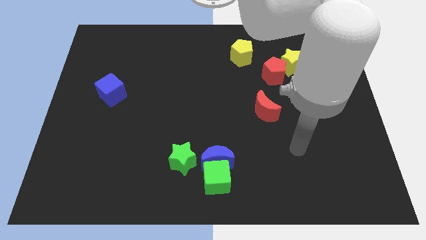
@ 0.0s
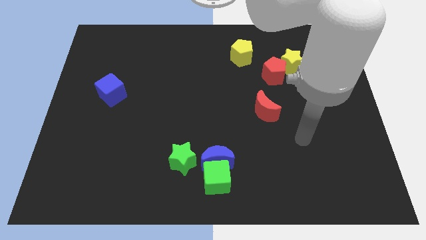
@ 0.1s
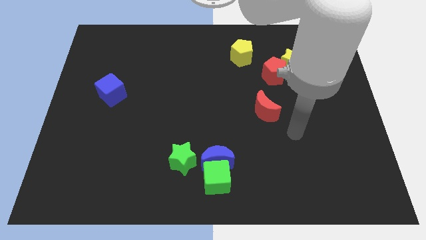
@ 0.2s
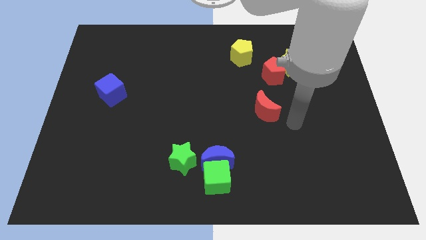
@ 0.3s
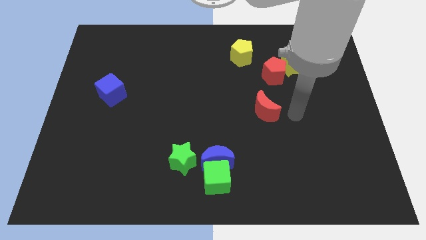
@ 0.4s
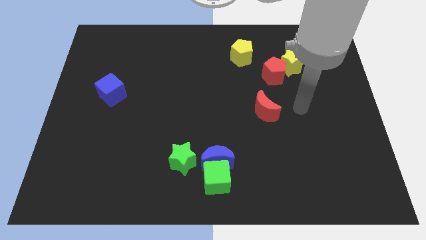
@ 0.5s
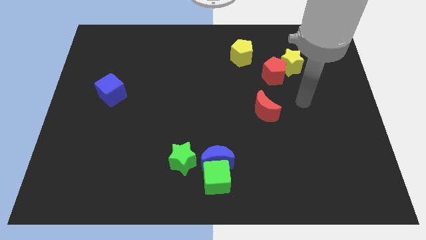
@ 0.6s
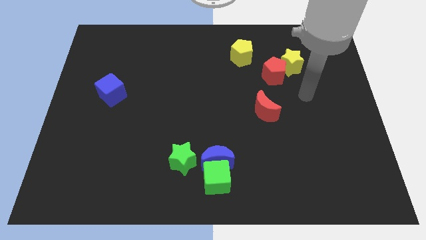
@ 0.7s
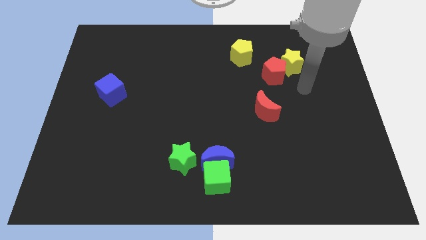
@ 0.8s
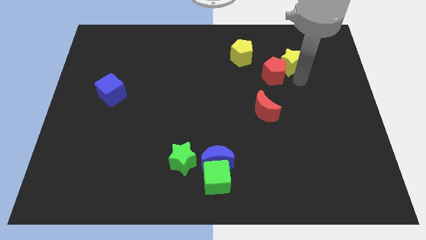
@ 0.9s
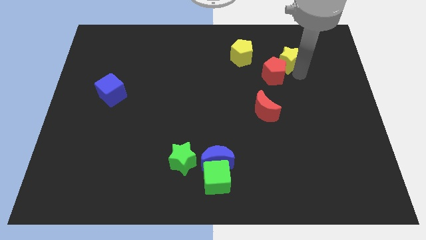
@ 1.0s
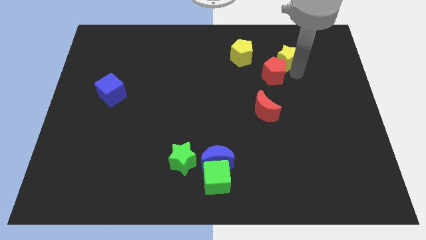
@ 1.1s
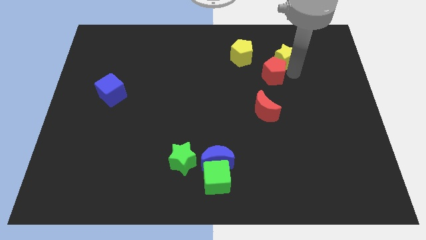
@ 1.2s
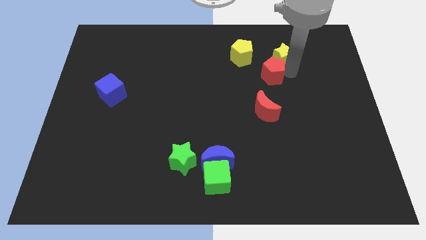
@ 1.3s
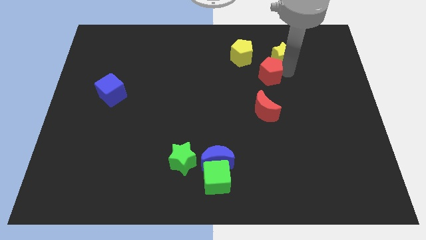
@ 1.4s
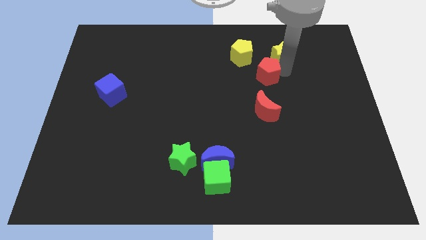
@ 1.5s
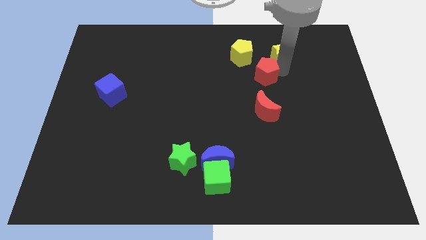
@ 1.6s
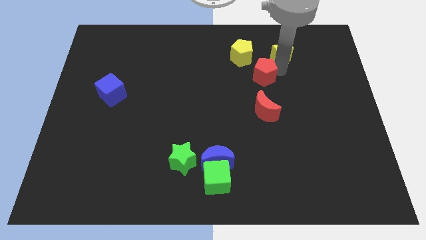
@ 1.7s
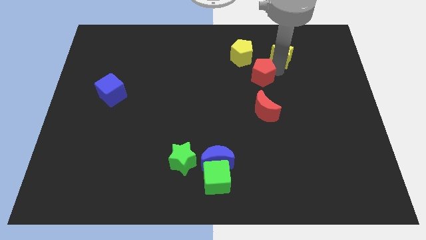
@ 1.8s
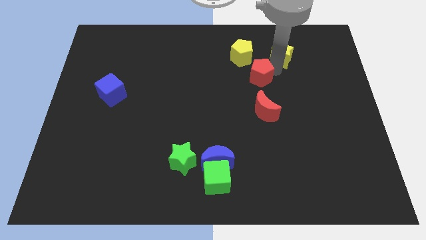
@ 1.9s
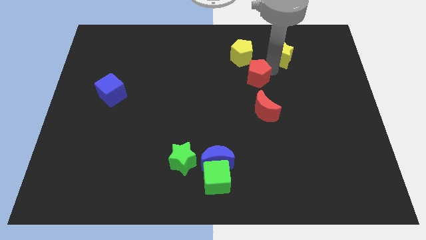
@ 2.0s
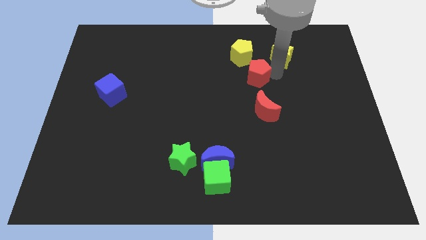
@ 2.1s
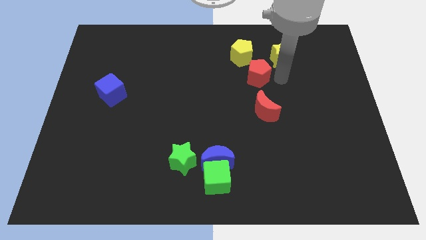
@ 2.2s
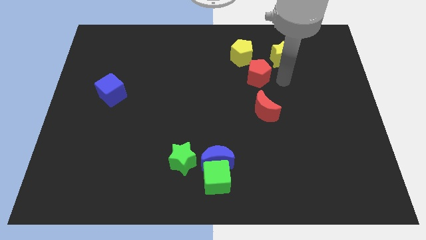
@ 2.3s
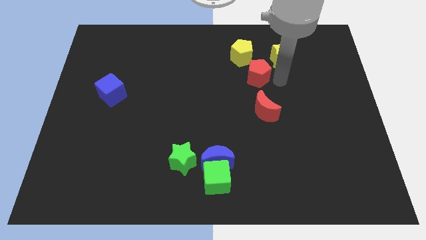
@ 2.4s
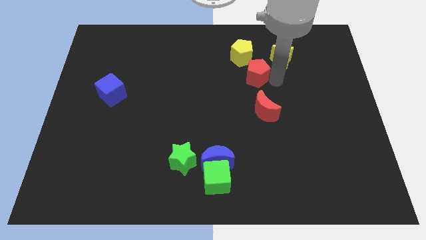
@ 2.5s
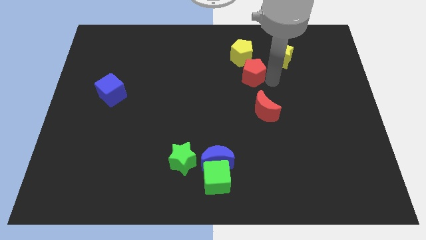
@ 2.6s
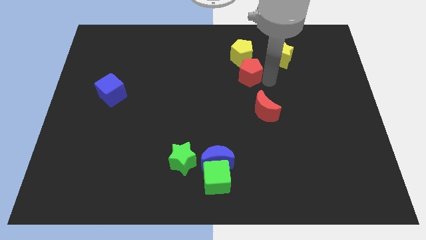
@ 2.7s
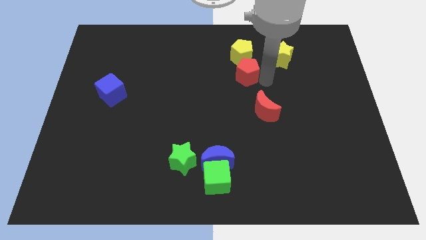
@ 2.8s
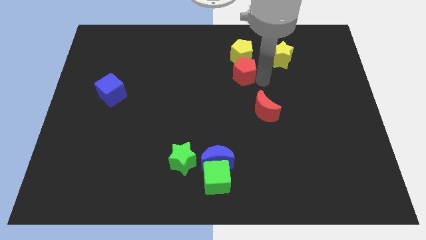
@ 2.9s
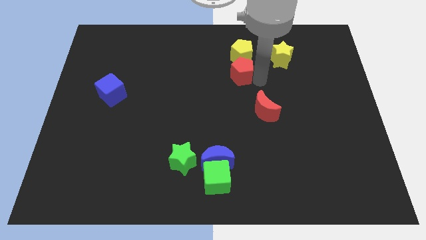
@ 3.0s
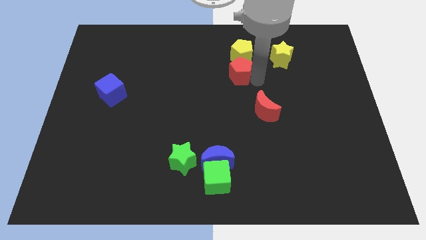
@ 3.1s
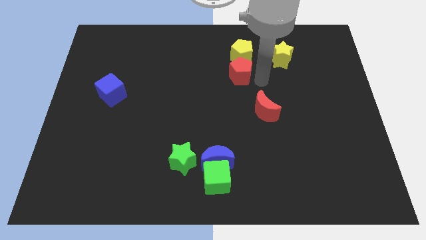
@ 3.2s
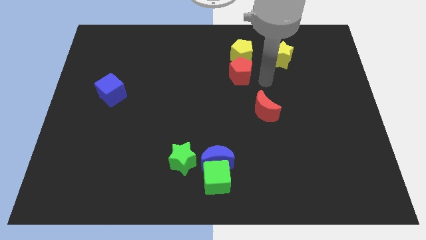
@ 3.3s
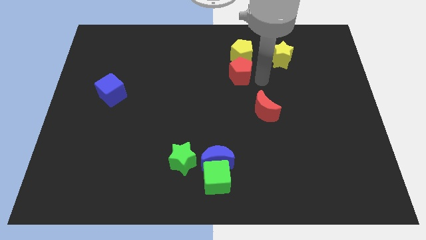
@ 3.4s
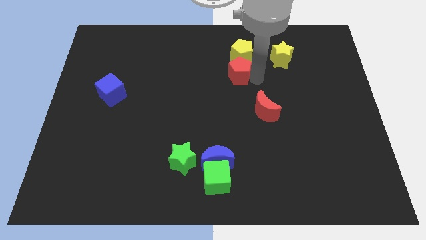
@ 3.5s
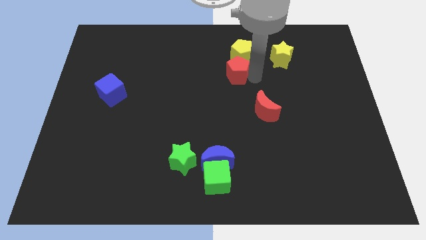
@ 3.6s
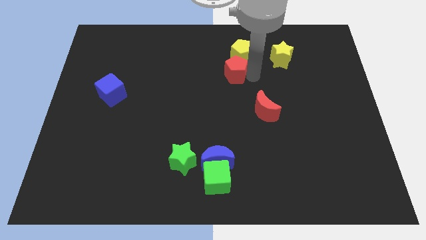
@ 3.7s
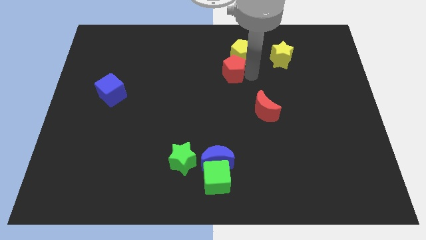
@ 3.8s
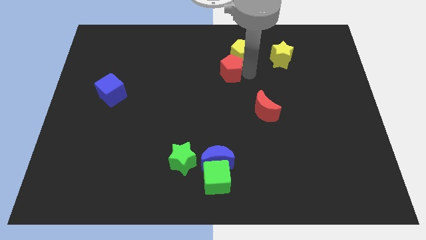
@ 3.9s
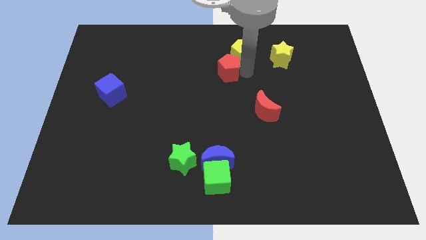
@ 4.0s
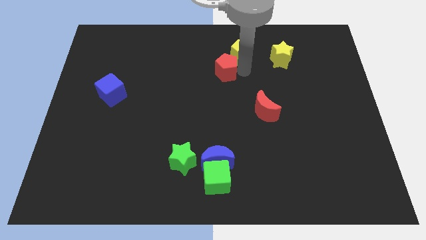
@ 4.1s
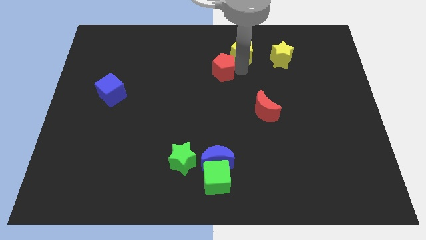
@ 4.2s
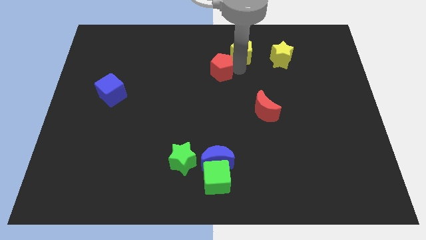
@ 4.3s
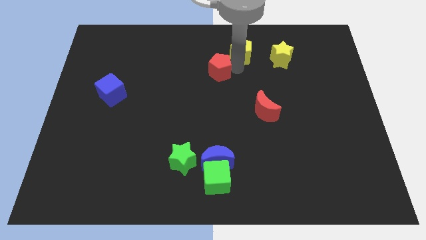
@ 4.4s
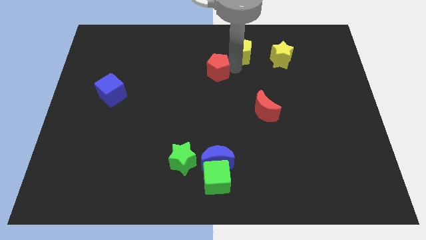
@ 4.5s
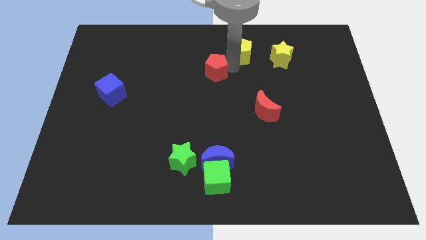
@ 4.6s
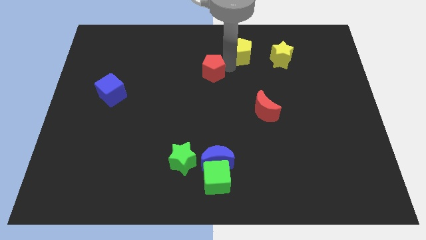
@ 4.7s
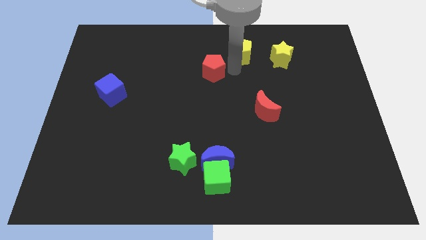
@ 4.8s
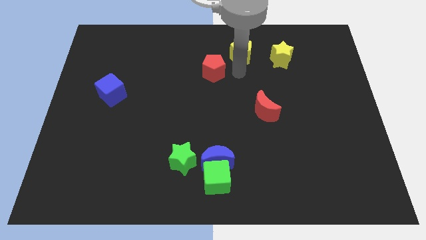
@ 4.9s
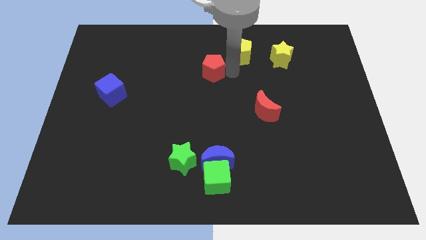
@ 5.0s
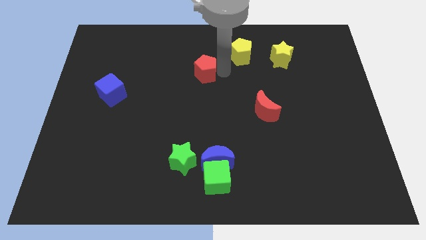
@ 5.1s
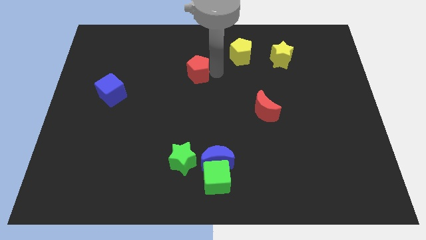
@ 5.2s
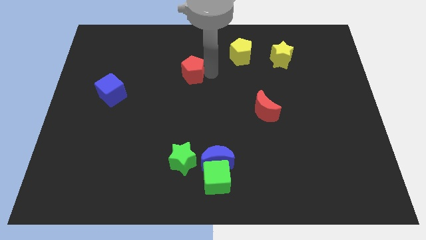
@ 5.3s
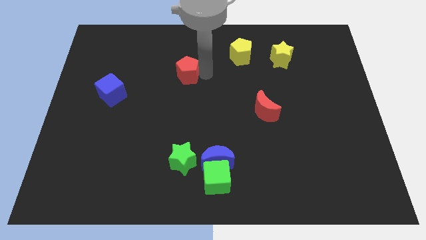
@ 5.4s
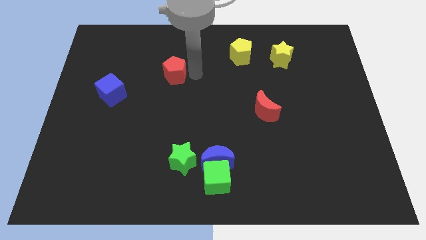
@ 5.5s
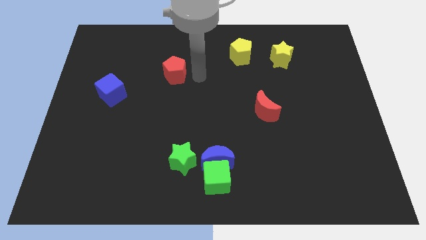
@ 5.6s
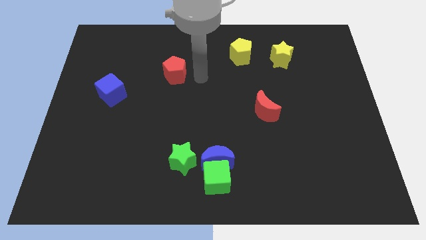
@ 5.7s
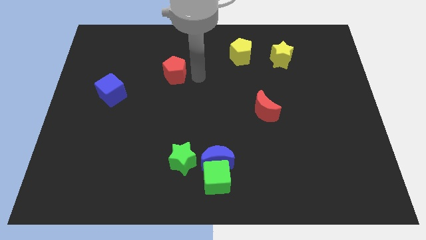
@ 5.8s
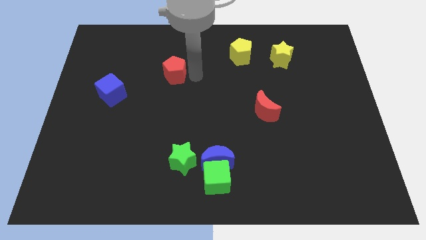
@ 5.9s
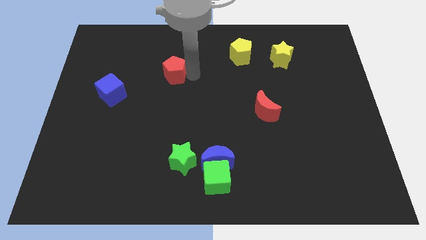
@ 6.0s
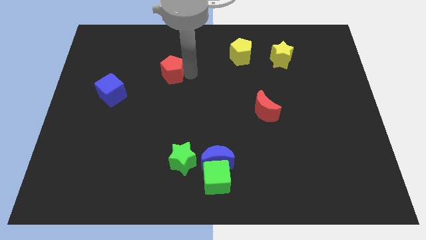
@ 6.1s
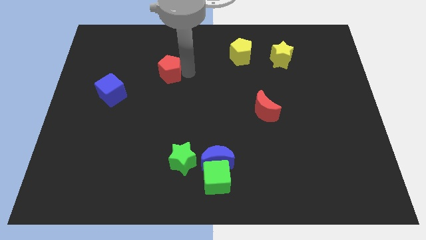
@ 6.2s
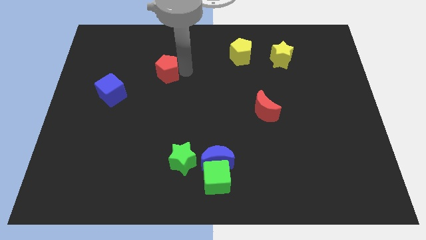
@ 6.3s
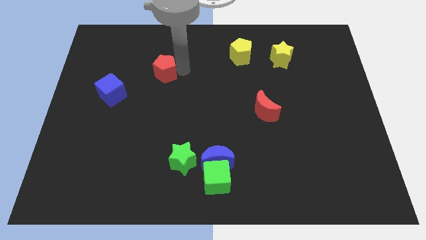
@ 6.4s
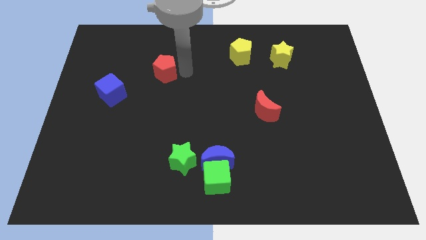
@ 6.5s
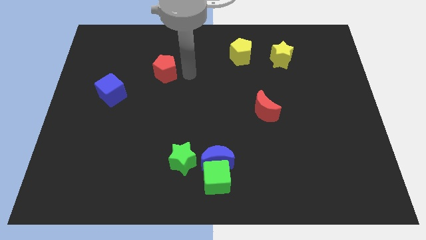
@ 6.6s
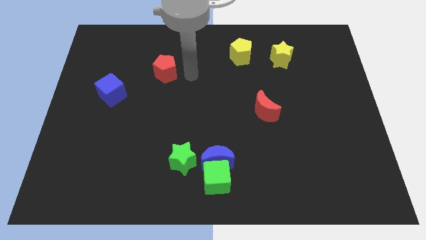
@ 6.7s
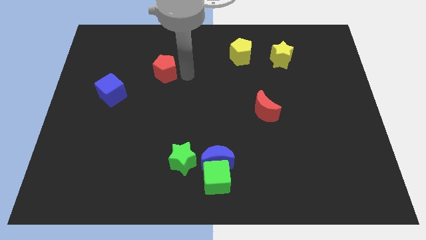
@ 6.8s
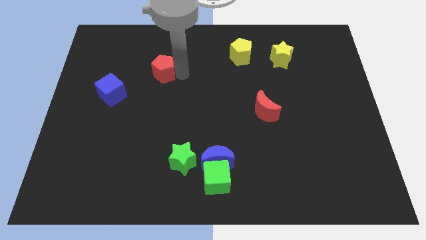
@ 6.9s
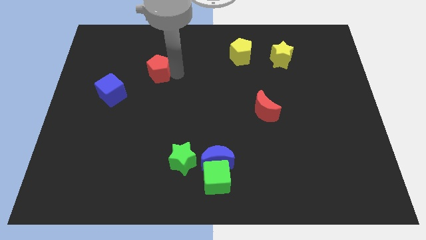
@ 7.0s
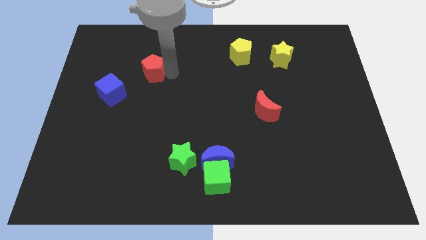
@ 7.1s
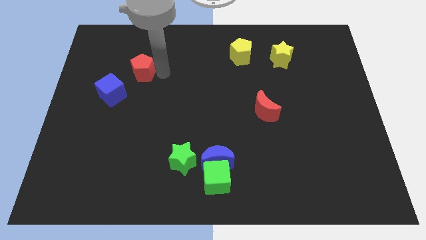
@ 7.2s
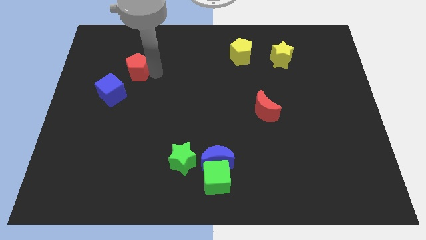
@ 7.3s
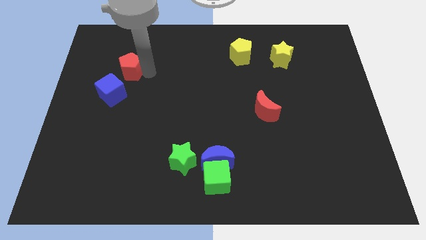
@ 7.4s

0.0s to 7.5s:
move the red pentagon above the blue cube
